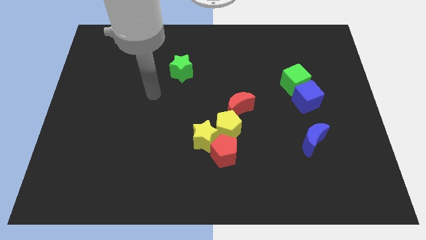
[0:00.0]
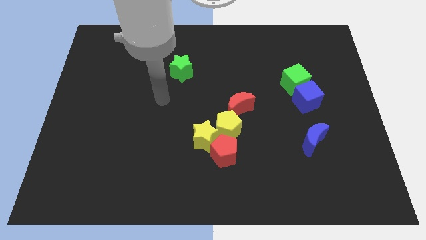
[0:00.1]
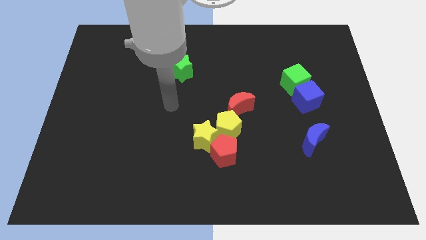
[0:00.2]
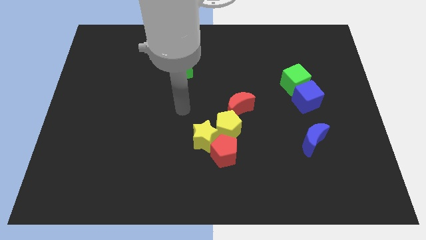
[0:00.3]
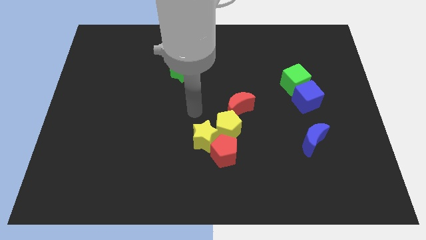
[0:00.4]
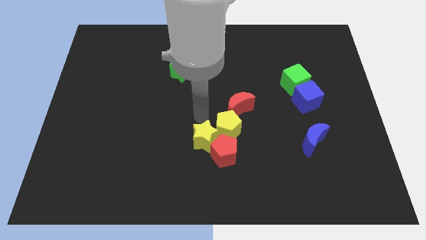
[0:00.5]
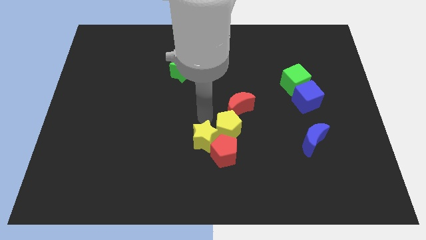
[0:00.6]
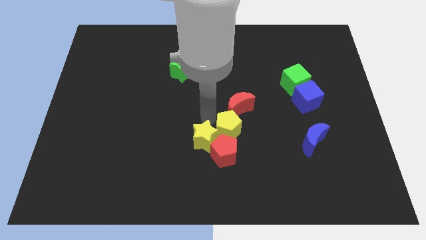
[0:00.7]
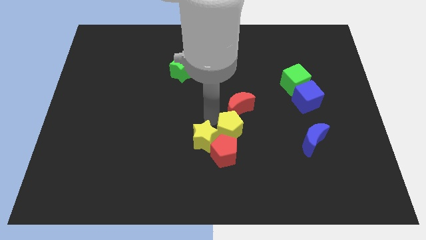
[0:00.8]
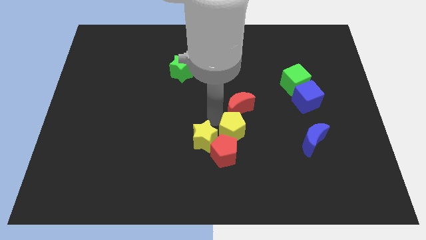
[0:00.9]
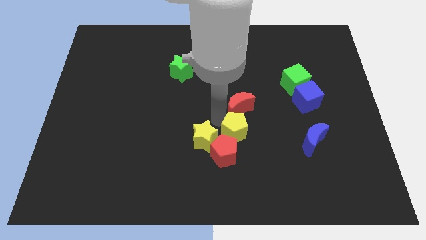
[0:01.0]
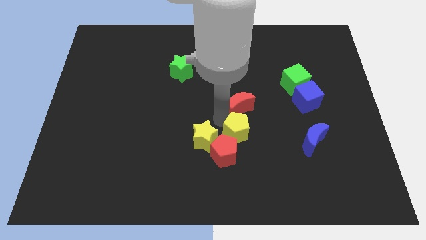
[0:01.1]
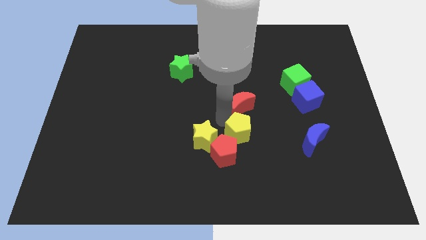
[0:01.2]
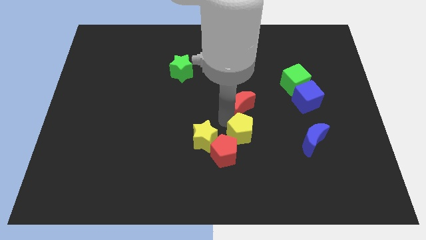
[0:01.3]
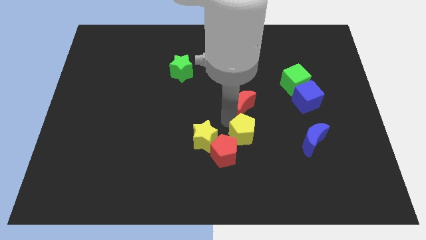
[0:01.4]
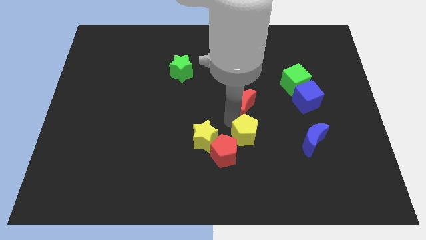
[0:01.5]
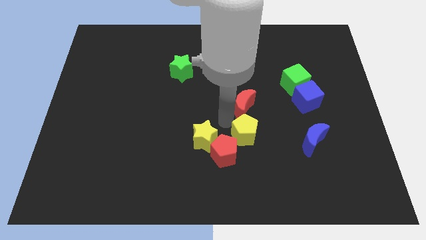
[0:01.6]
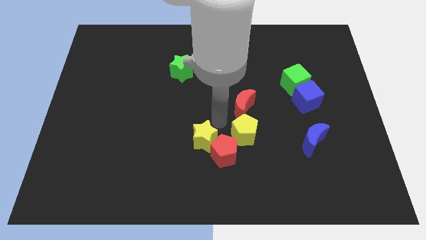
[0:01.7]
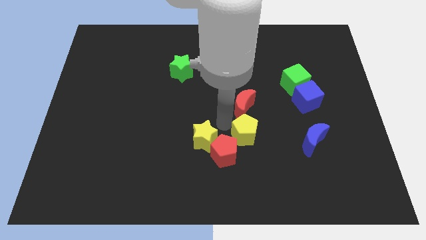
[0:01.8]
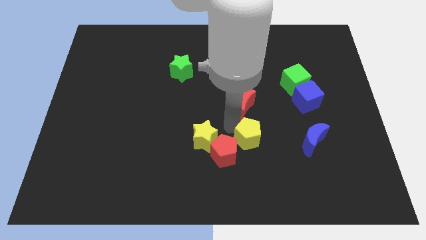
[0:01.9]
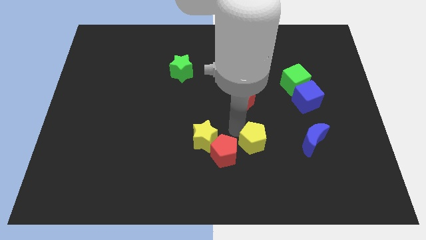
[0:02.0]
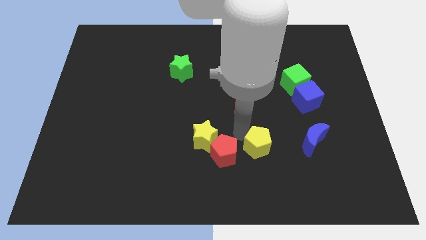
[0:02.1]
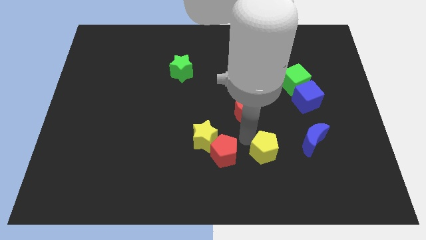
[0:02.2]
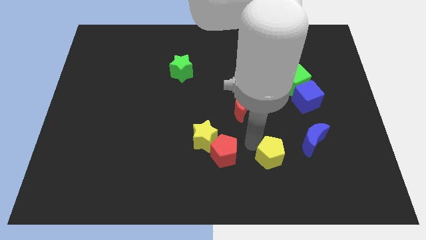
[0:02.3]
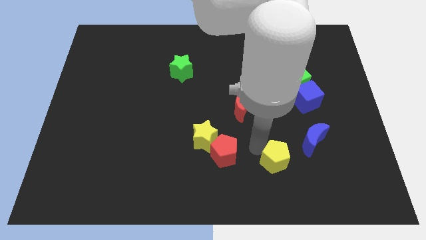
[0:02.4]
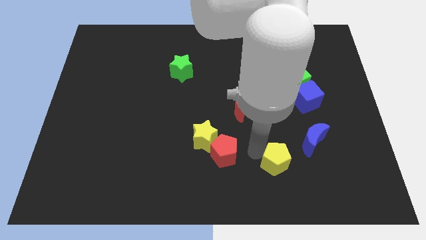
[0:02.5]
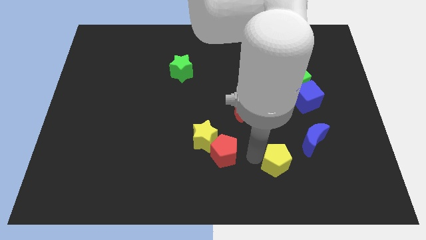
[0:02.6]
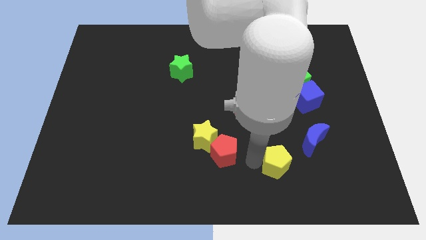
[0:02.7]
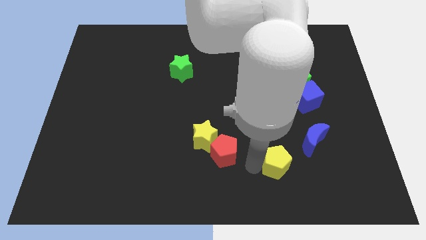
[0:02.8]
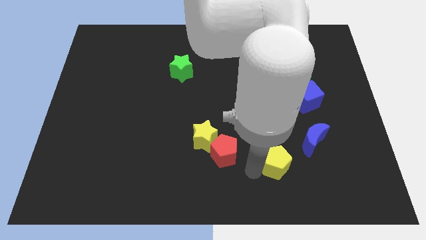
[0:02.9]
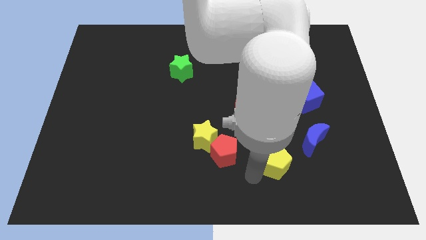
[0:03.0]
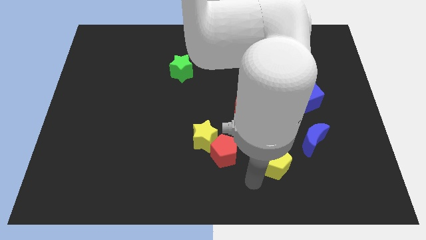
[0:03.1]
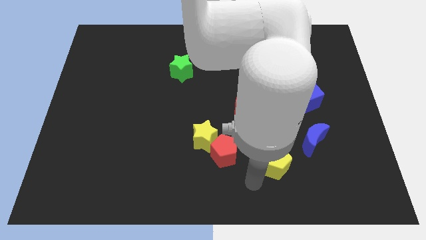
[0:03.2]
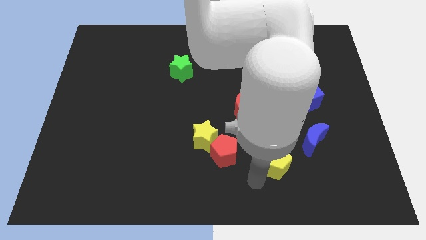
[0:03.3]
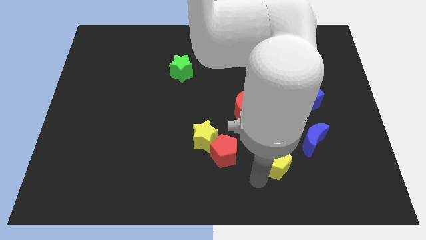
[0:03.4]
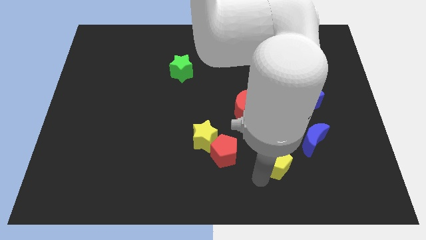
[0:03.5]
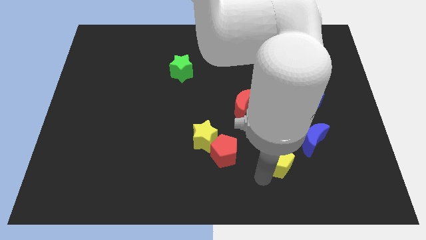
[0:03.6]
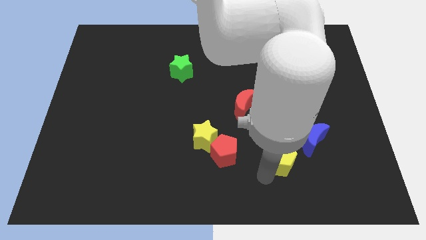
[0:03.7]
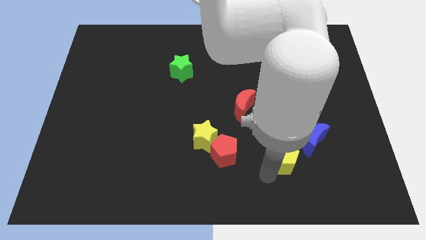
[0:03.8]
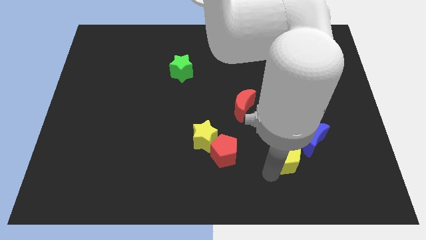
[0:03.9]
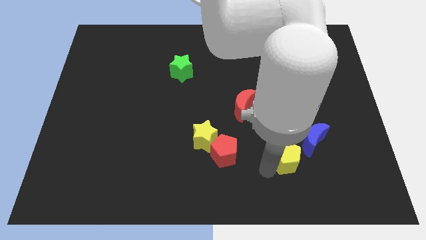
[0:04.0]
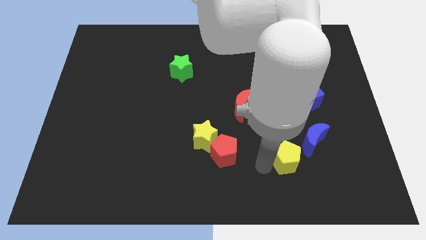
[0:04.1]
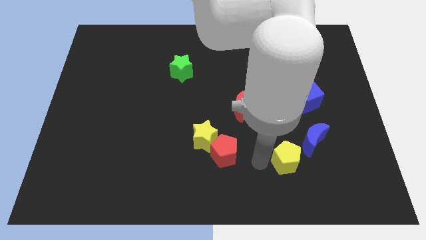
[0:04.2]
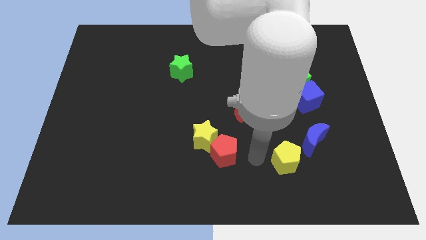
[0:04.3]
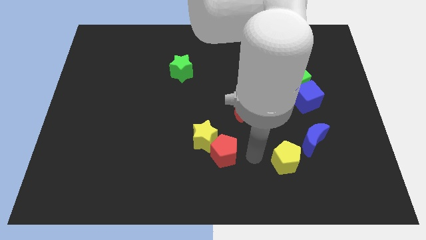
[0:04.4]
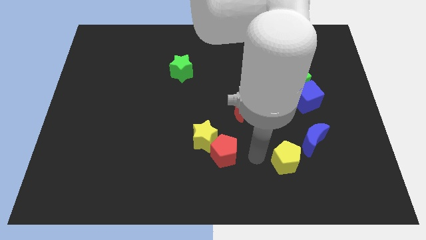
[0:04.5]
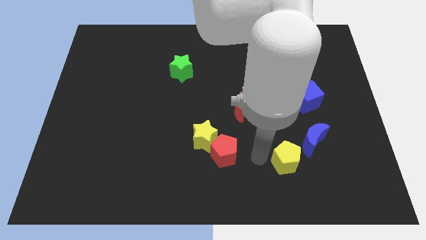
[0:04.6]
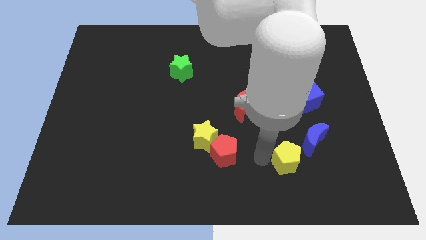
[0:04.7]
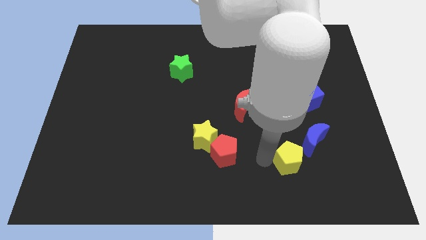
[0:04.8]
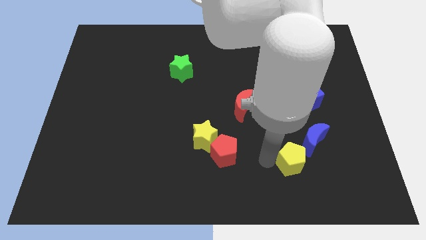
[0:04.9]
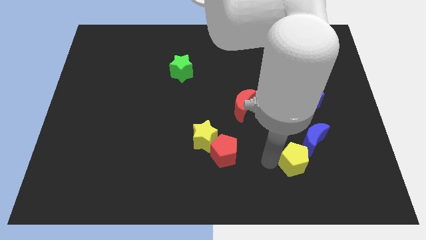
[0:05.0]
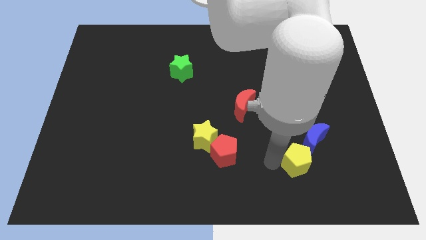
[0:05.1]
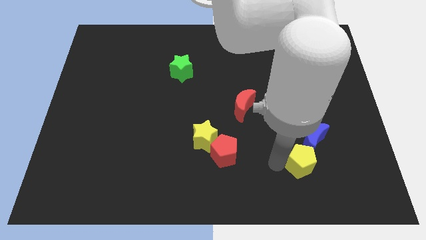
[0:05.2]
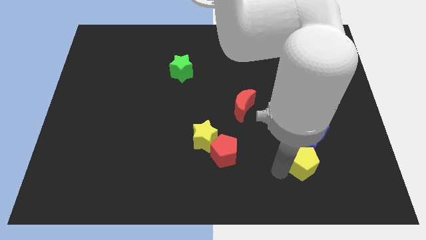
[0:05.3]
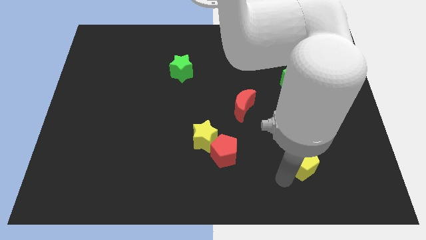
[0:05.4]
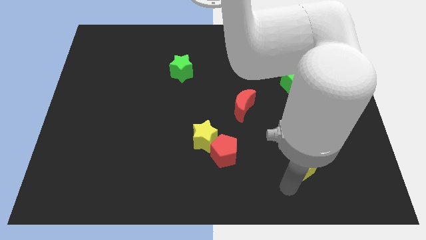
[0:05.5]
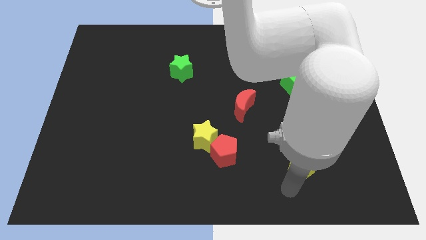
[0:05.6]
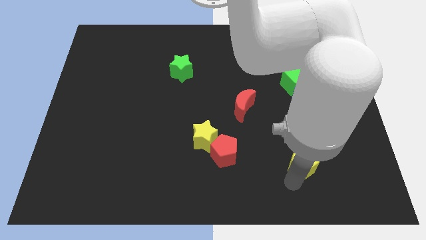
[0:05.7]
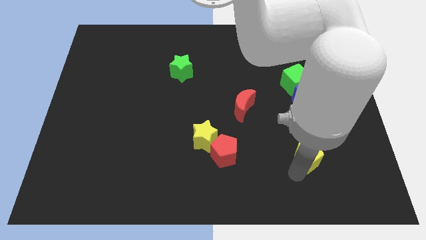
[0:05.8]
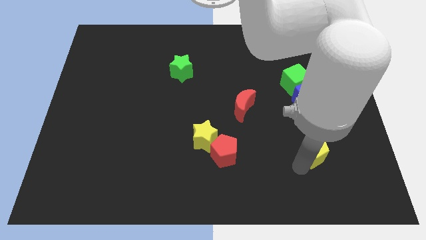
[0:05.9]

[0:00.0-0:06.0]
push the yellow pentagon to the bottom of the blue cube
